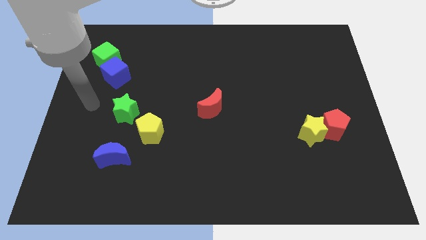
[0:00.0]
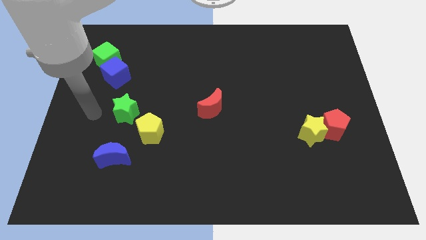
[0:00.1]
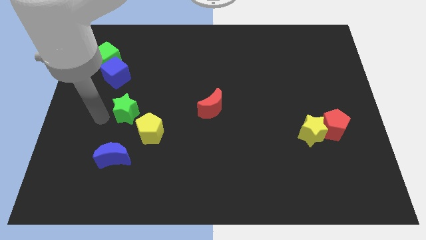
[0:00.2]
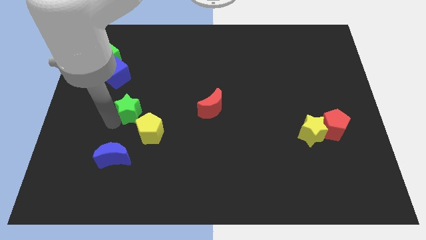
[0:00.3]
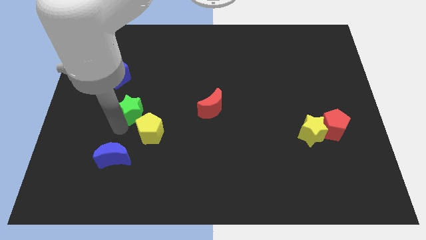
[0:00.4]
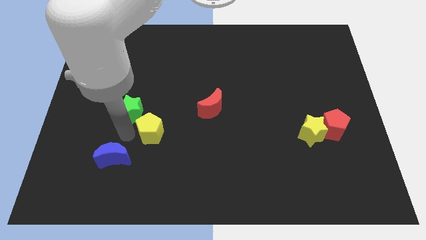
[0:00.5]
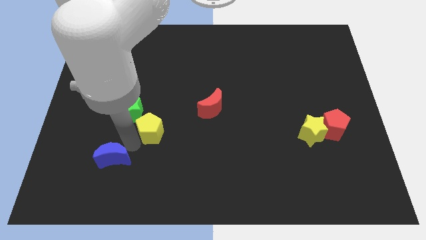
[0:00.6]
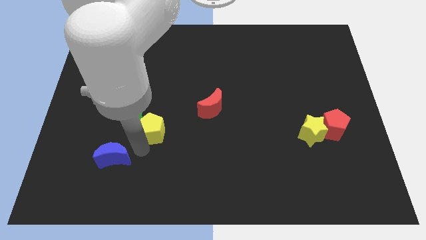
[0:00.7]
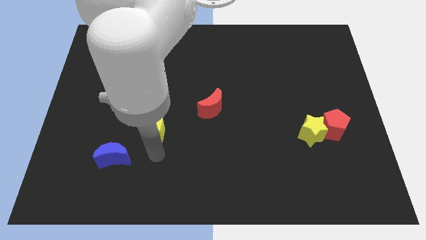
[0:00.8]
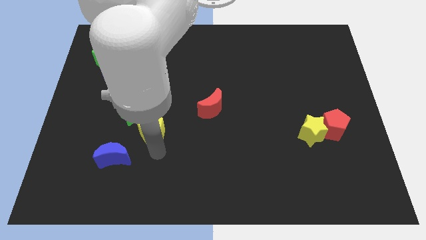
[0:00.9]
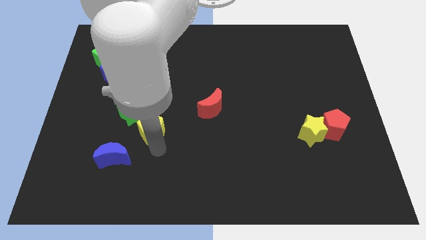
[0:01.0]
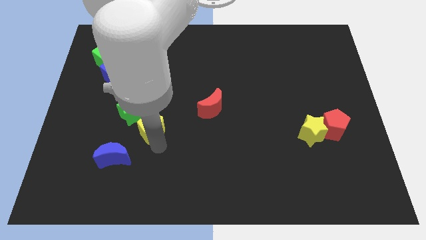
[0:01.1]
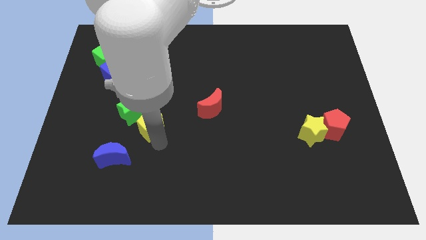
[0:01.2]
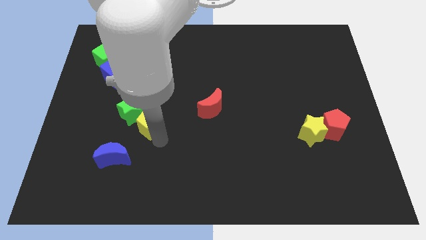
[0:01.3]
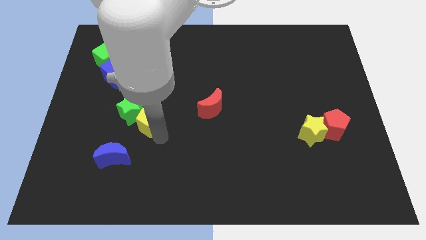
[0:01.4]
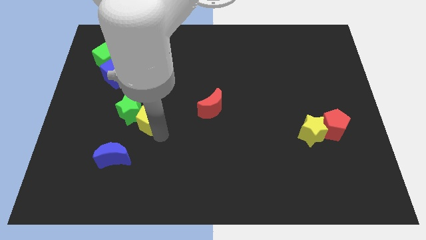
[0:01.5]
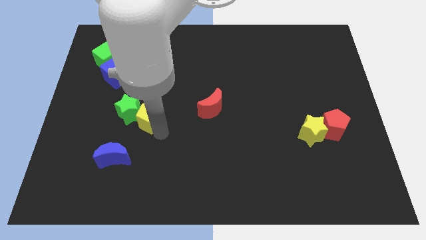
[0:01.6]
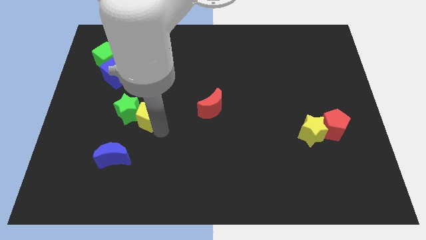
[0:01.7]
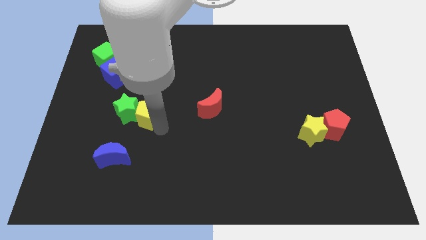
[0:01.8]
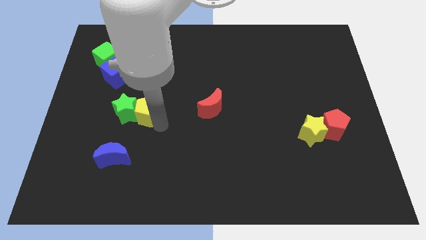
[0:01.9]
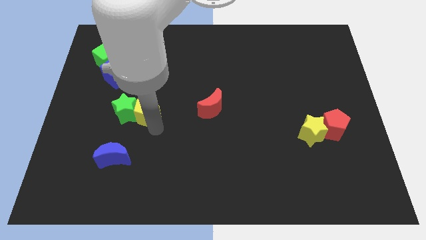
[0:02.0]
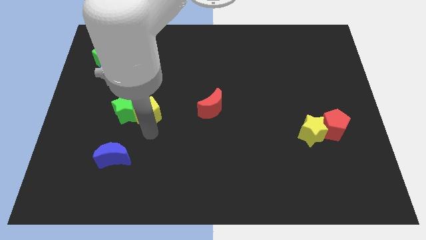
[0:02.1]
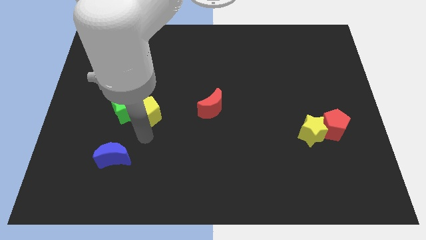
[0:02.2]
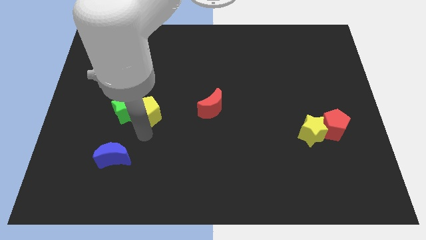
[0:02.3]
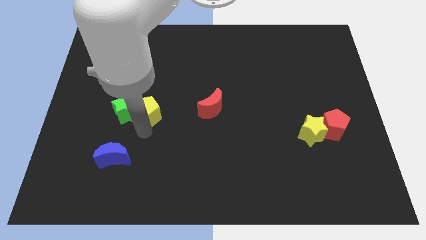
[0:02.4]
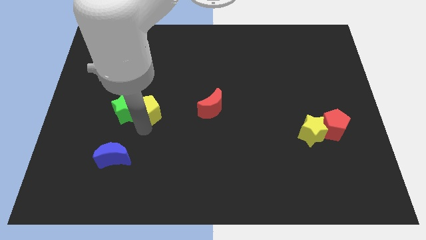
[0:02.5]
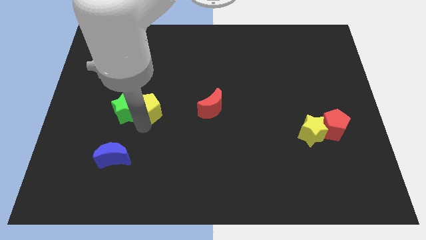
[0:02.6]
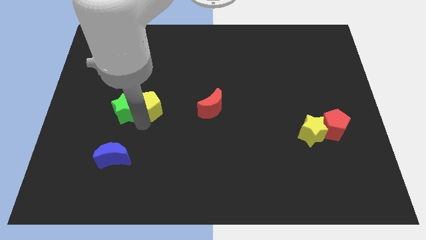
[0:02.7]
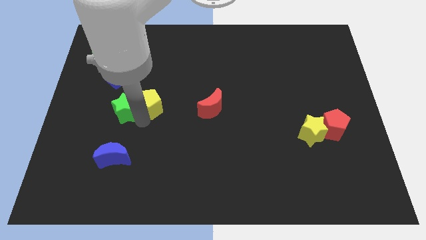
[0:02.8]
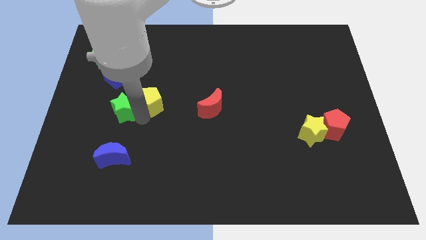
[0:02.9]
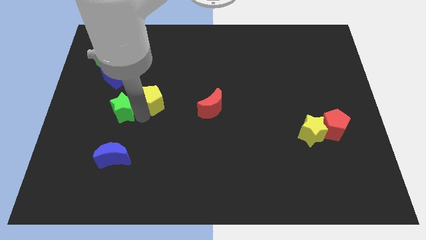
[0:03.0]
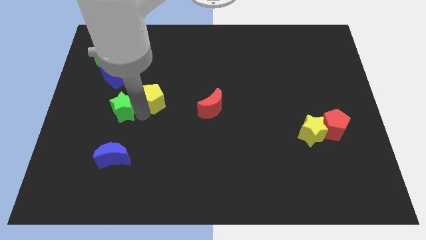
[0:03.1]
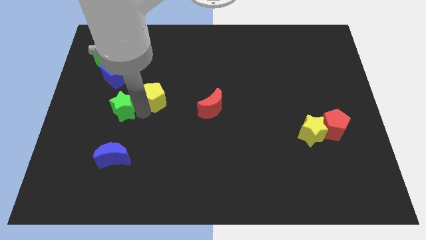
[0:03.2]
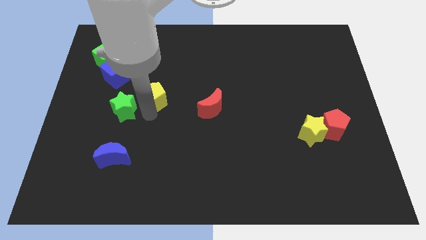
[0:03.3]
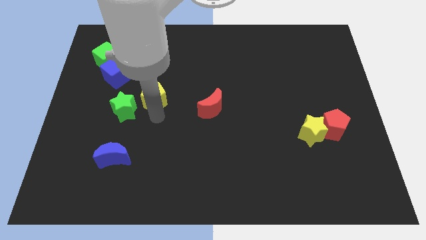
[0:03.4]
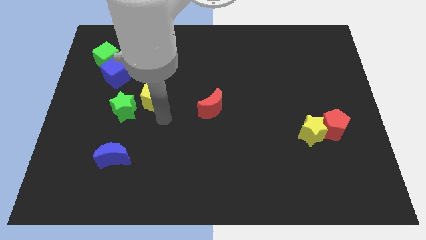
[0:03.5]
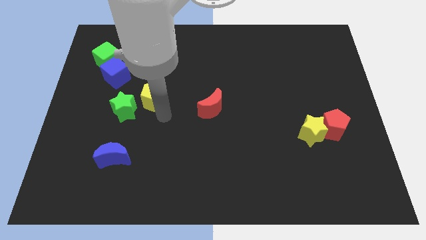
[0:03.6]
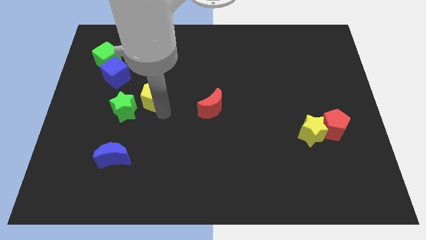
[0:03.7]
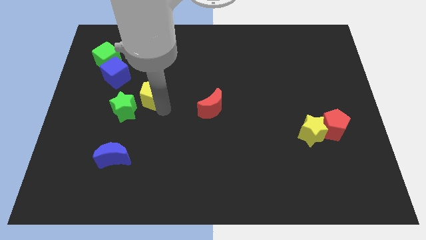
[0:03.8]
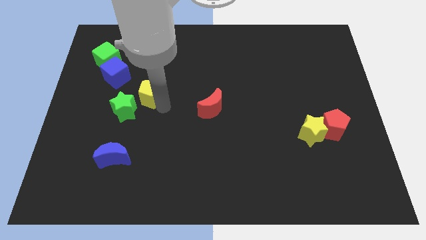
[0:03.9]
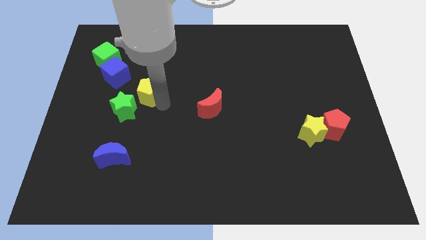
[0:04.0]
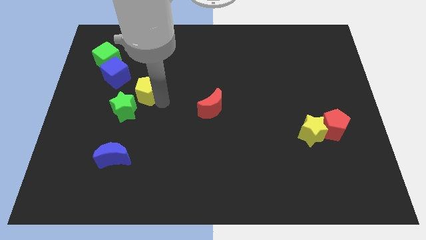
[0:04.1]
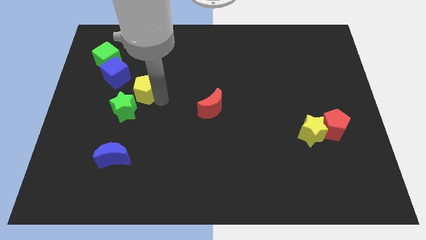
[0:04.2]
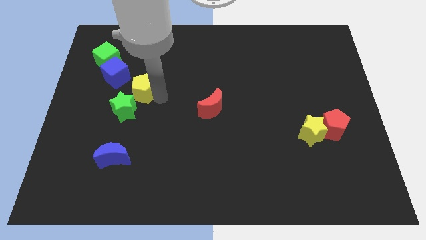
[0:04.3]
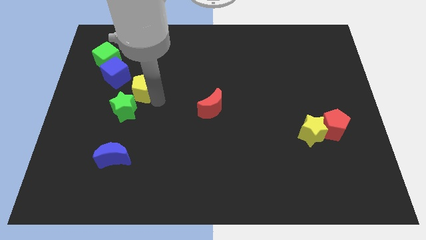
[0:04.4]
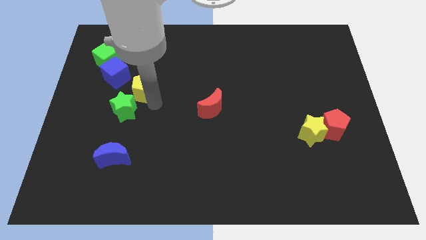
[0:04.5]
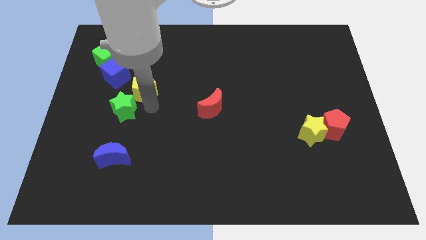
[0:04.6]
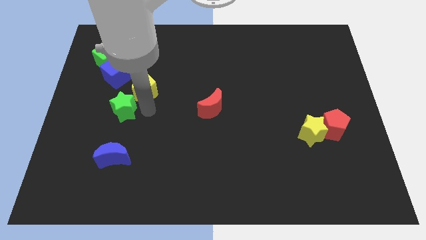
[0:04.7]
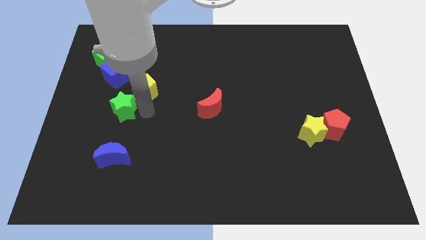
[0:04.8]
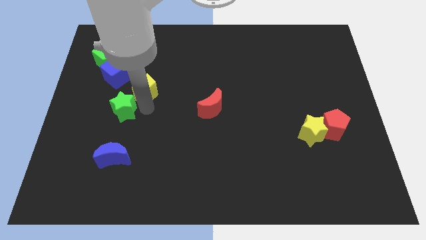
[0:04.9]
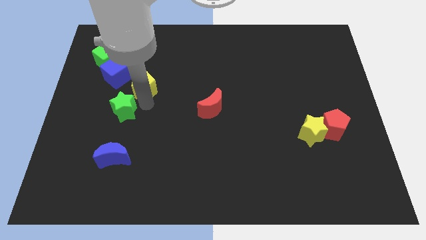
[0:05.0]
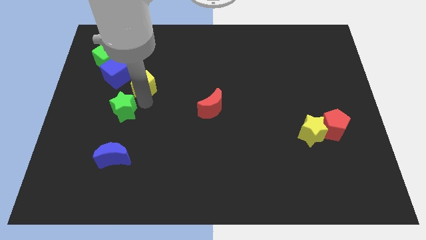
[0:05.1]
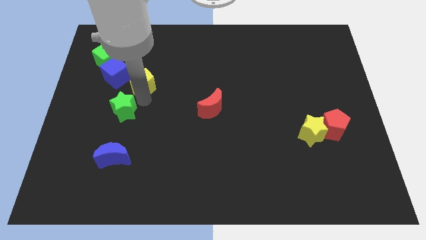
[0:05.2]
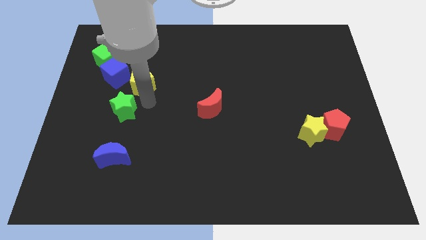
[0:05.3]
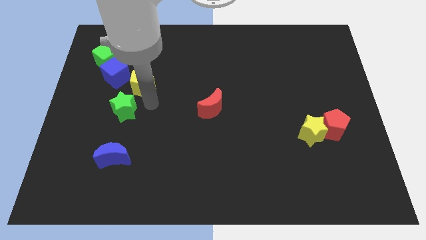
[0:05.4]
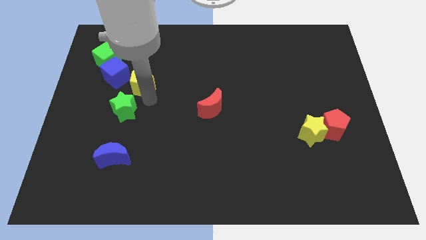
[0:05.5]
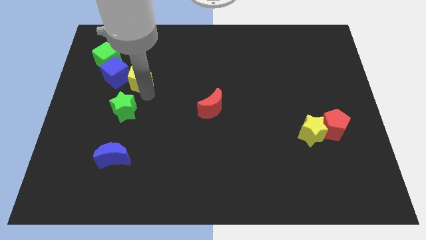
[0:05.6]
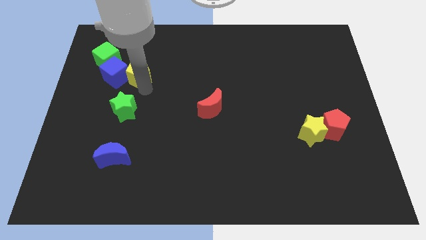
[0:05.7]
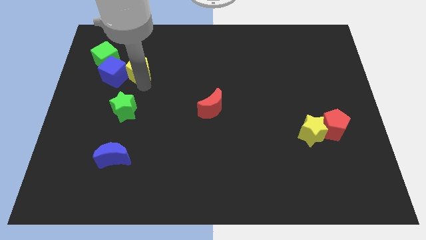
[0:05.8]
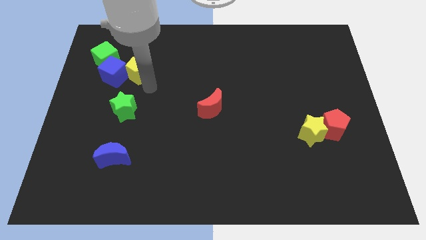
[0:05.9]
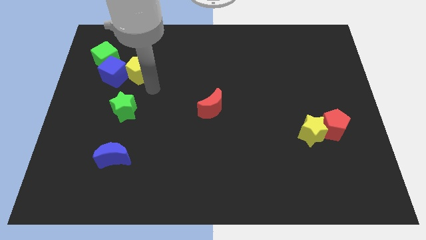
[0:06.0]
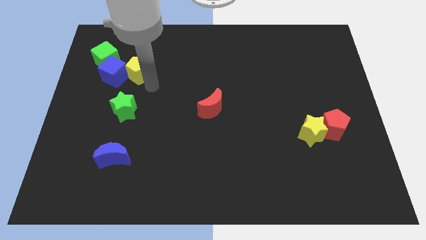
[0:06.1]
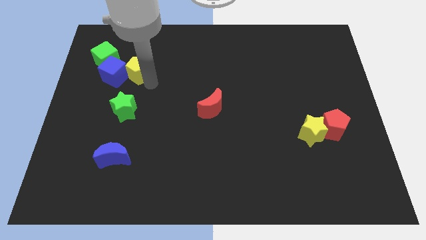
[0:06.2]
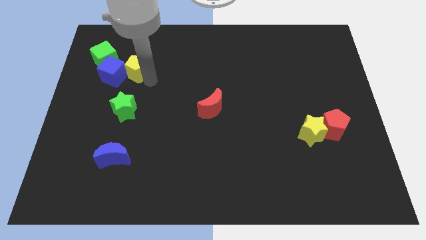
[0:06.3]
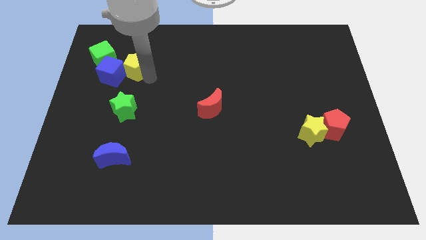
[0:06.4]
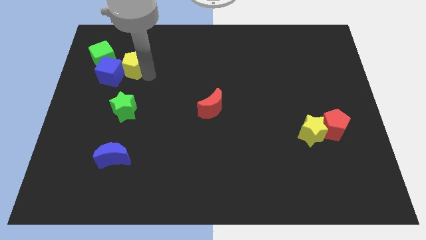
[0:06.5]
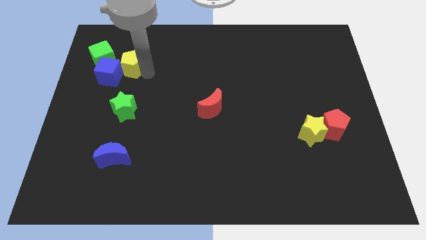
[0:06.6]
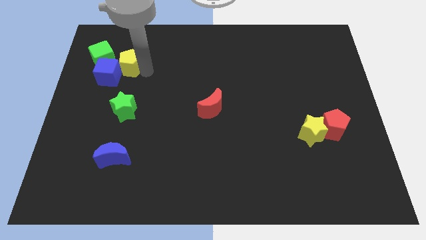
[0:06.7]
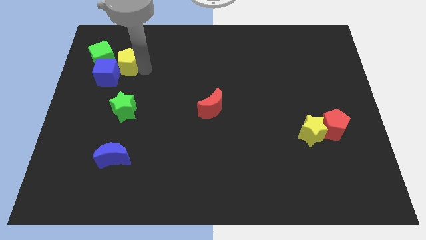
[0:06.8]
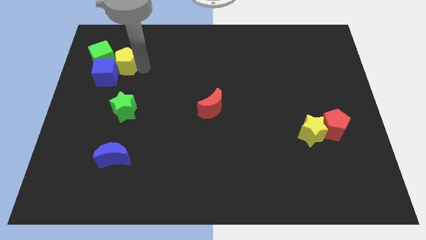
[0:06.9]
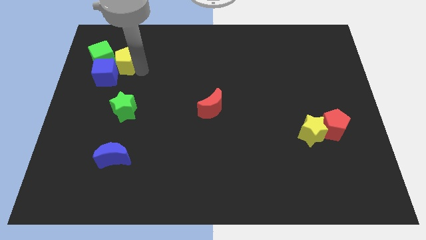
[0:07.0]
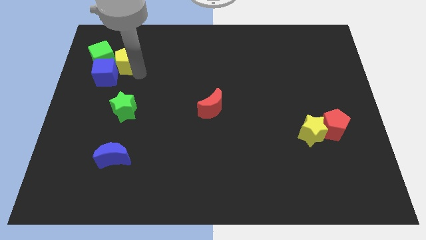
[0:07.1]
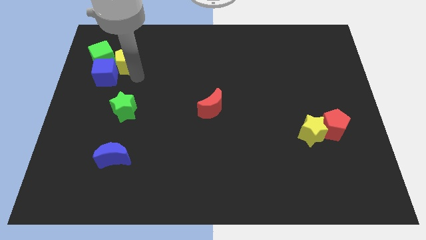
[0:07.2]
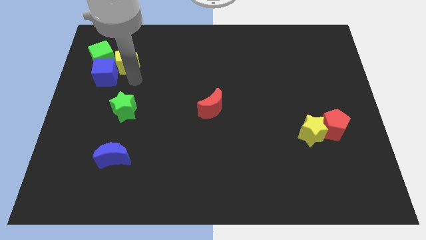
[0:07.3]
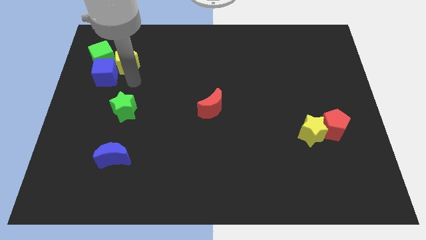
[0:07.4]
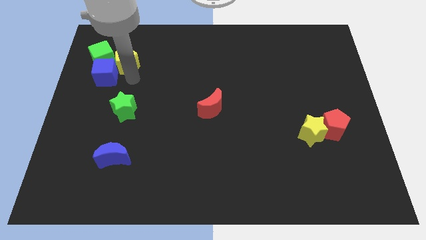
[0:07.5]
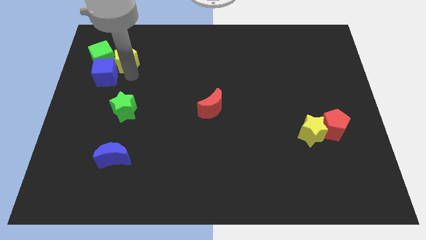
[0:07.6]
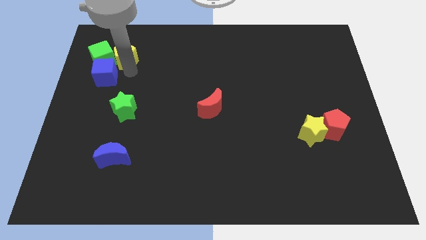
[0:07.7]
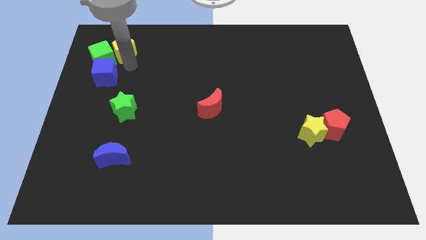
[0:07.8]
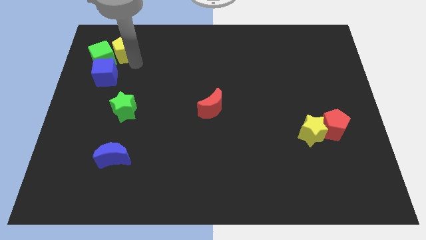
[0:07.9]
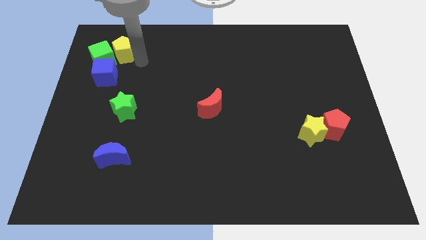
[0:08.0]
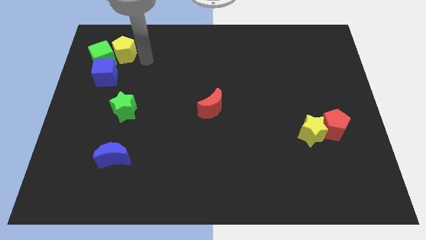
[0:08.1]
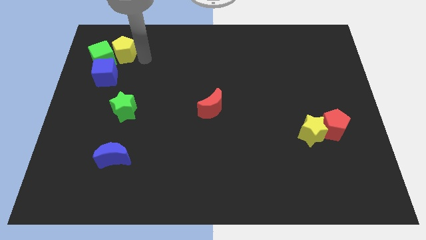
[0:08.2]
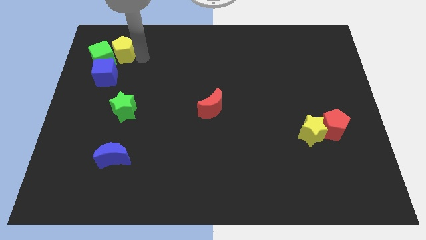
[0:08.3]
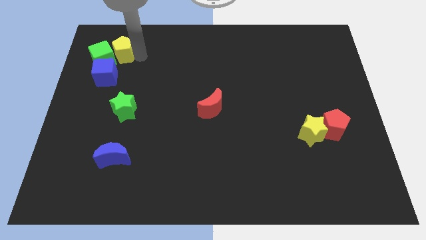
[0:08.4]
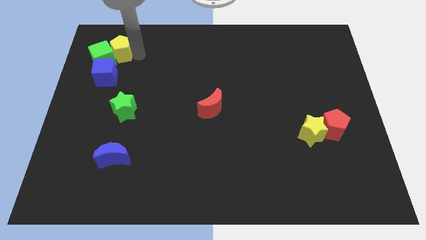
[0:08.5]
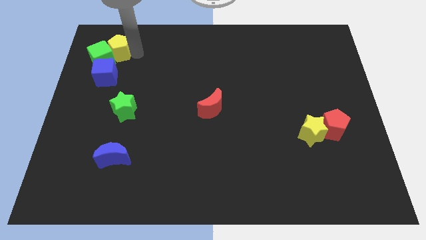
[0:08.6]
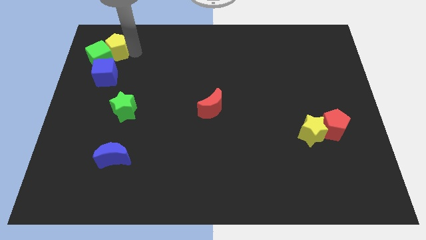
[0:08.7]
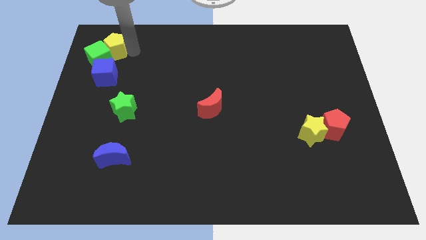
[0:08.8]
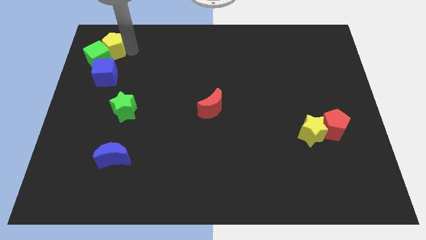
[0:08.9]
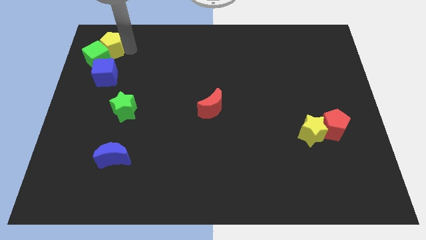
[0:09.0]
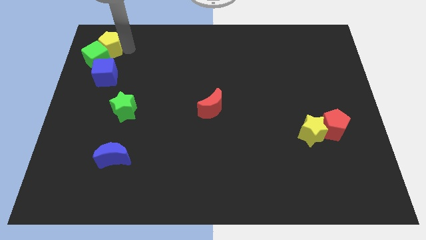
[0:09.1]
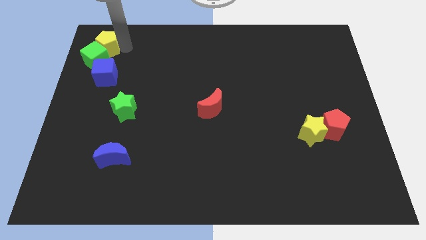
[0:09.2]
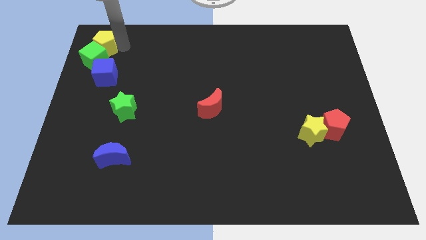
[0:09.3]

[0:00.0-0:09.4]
move the yellow pentagon to the top left
